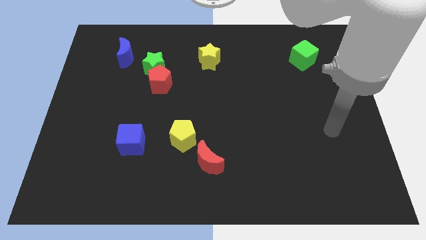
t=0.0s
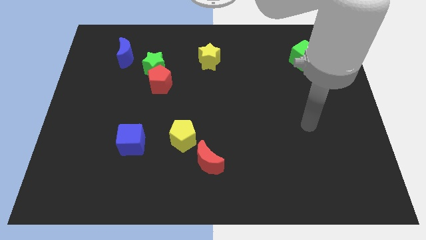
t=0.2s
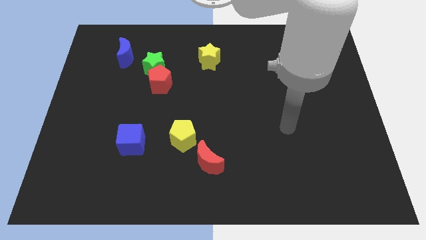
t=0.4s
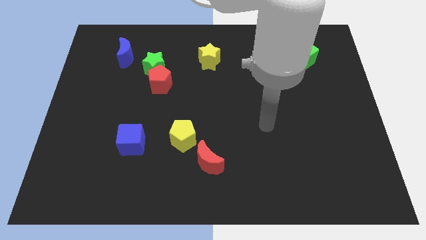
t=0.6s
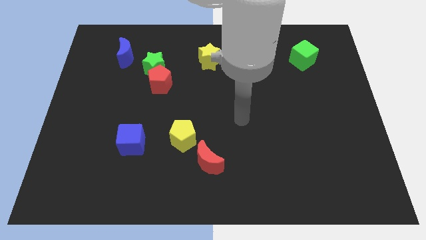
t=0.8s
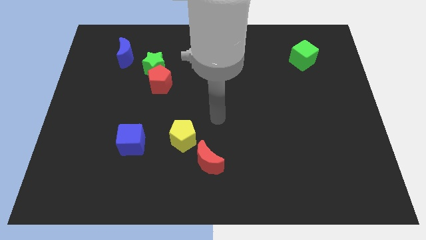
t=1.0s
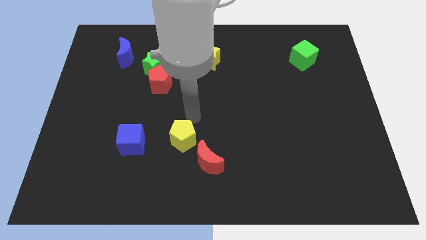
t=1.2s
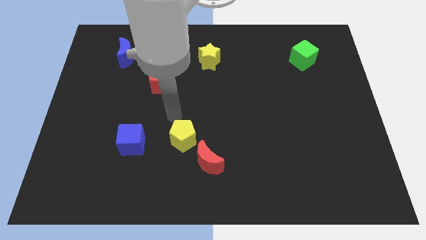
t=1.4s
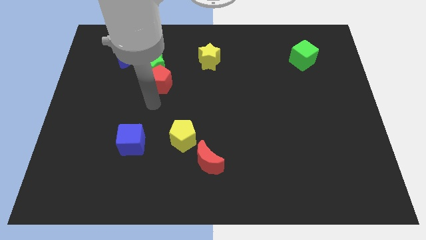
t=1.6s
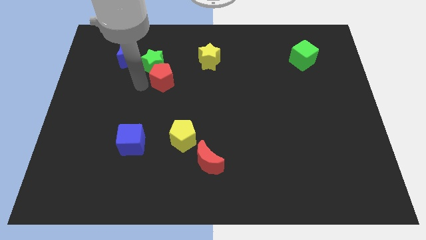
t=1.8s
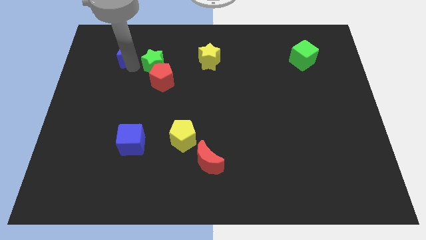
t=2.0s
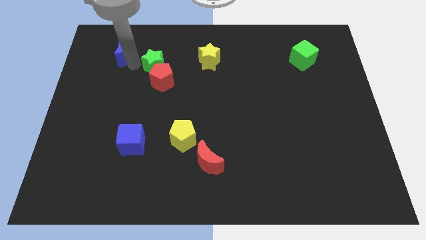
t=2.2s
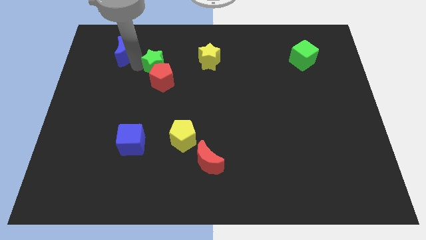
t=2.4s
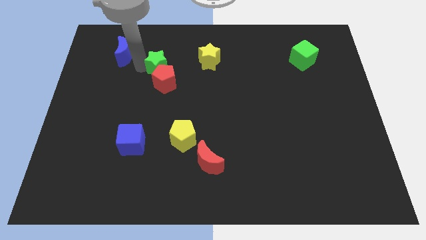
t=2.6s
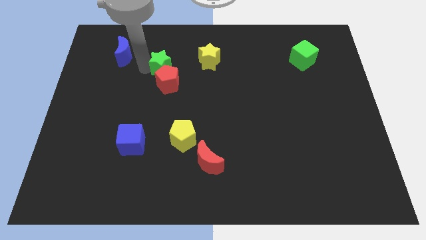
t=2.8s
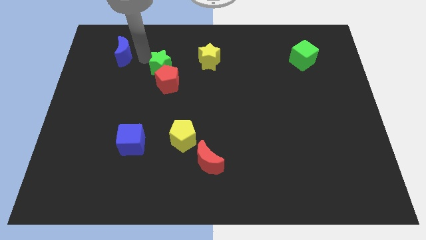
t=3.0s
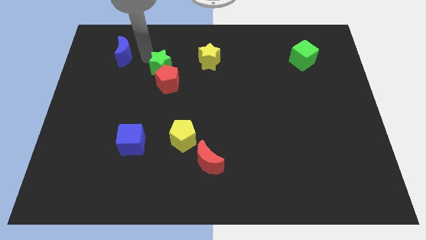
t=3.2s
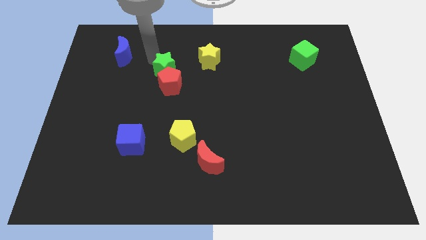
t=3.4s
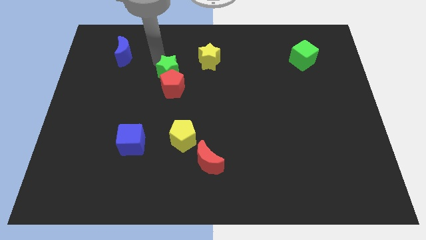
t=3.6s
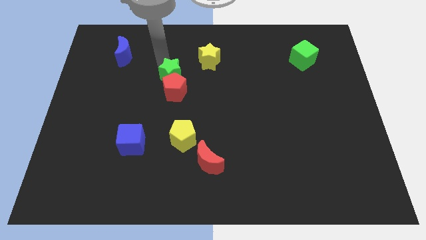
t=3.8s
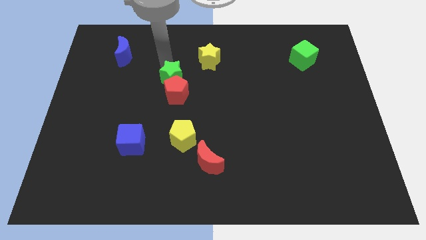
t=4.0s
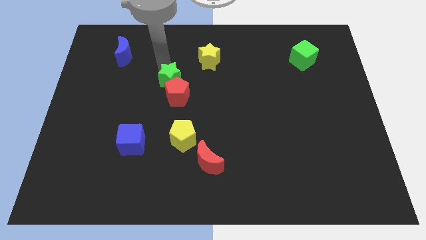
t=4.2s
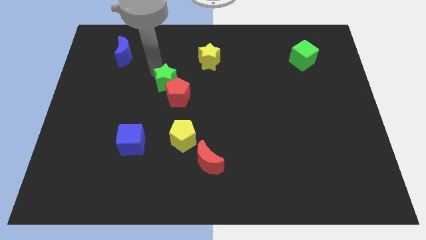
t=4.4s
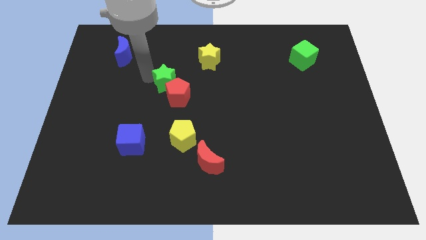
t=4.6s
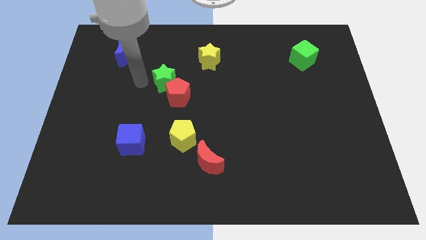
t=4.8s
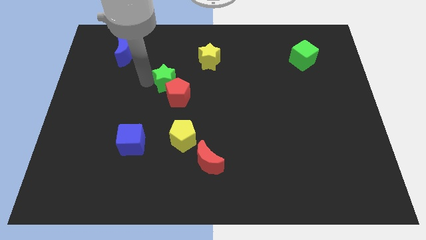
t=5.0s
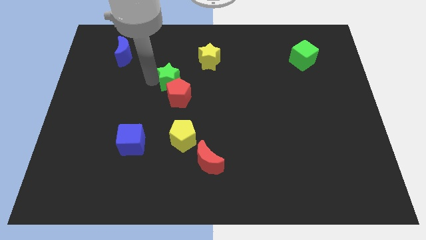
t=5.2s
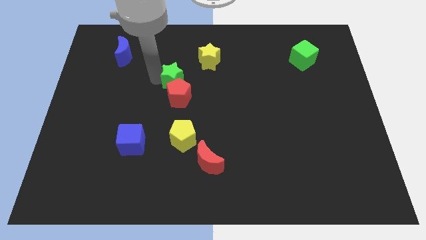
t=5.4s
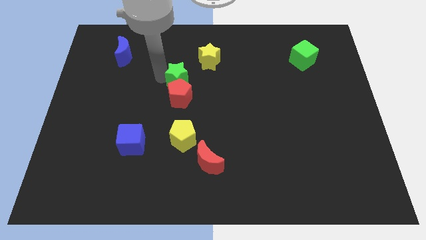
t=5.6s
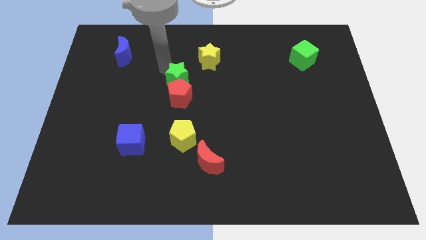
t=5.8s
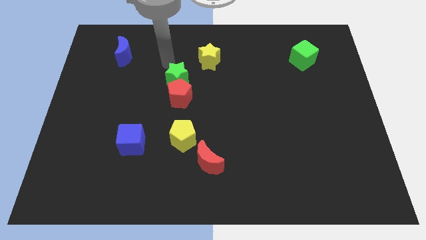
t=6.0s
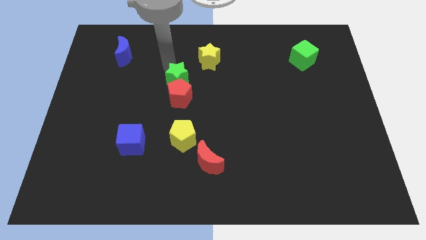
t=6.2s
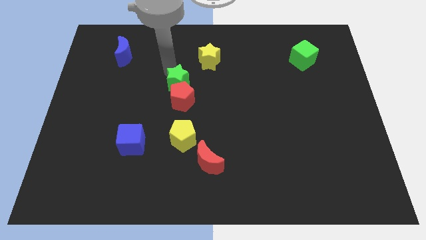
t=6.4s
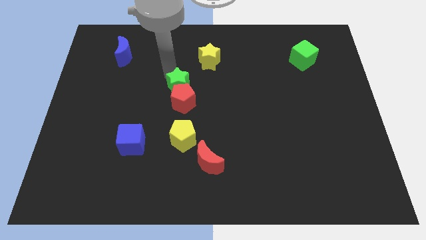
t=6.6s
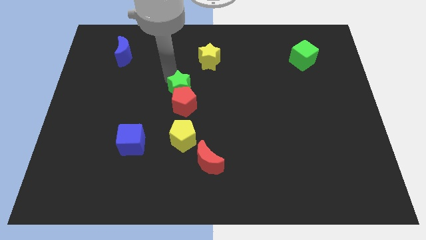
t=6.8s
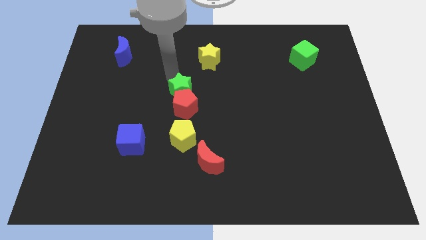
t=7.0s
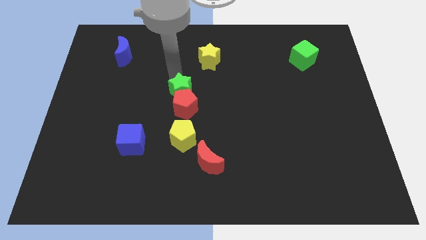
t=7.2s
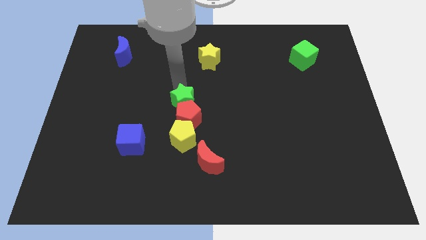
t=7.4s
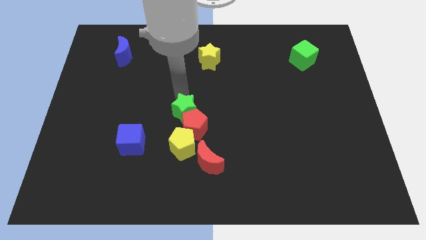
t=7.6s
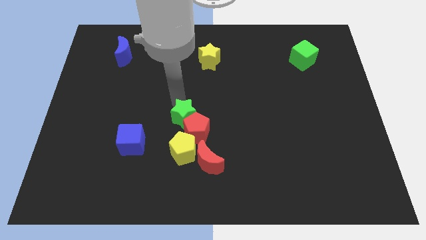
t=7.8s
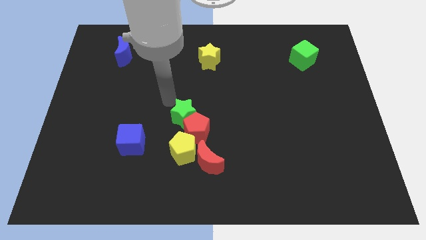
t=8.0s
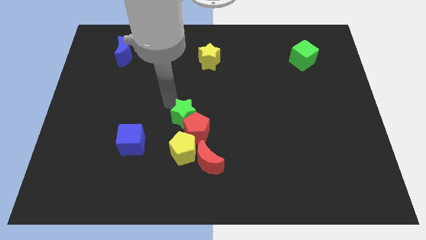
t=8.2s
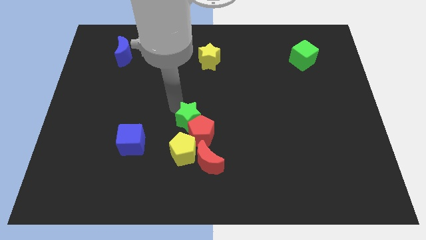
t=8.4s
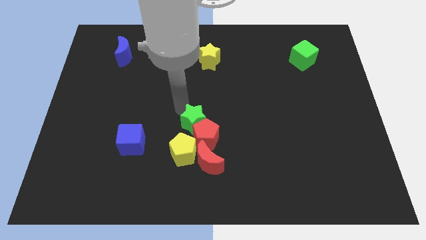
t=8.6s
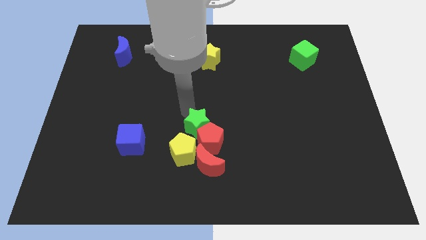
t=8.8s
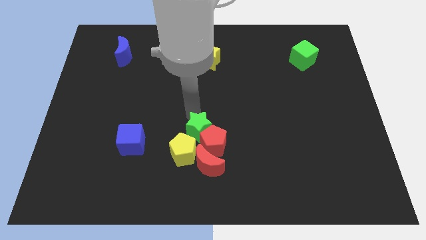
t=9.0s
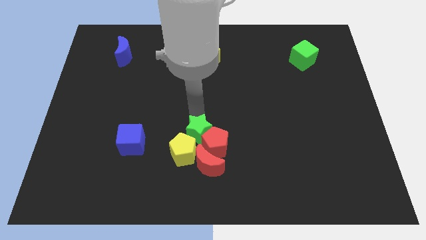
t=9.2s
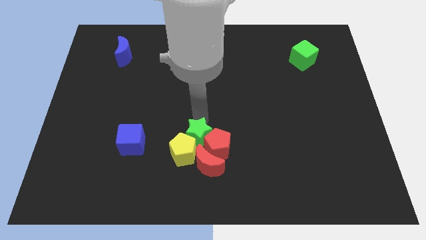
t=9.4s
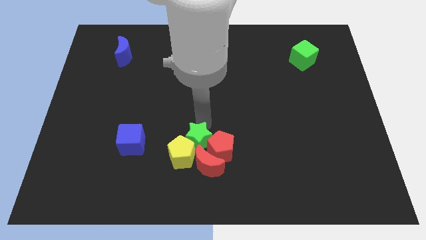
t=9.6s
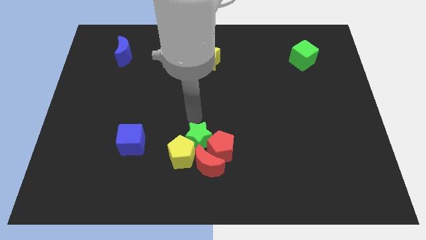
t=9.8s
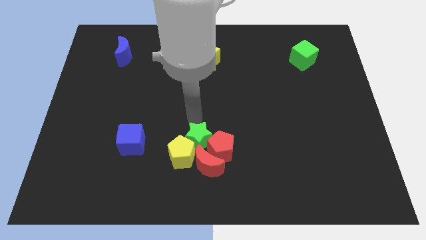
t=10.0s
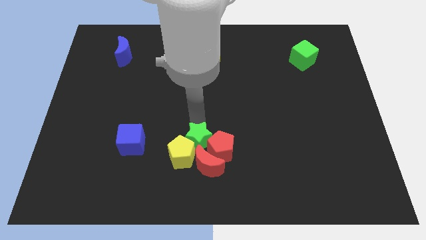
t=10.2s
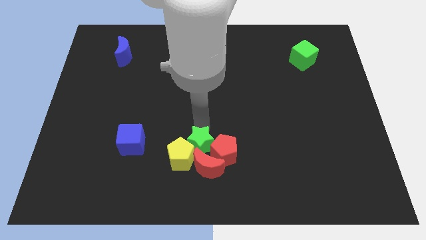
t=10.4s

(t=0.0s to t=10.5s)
put the green star towards the red moon

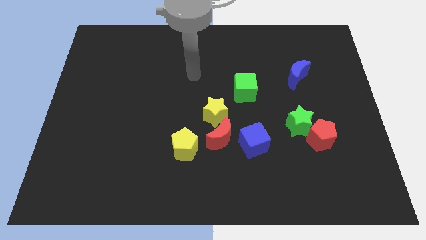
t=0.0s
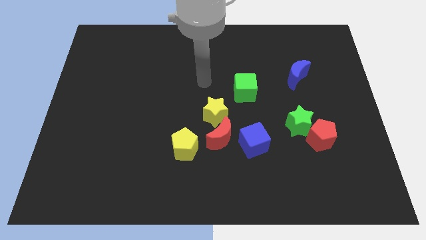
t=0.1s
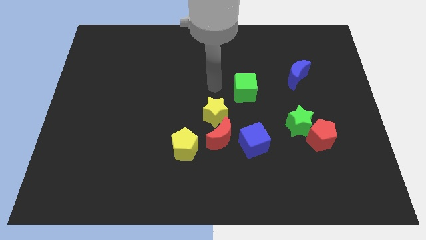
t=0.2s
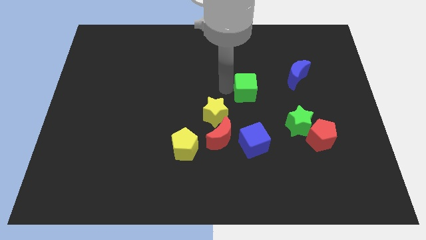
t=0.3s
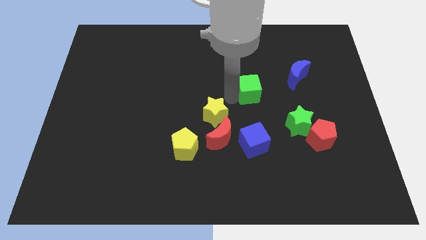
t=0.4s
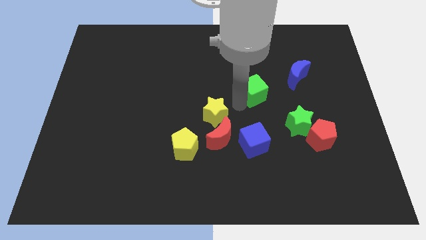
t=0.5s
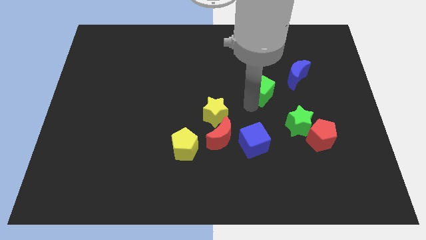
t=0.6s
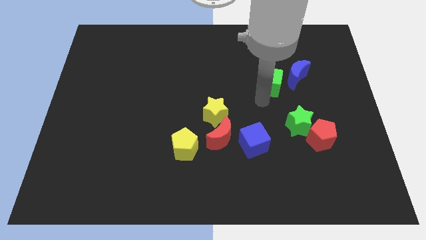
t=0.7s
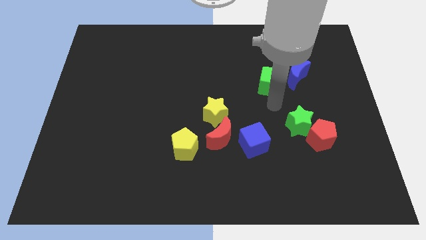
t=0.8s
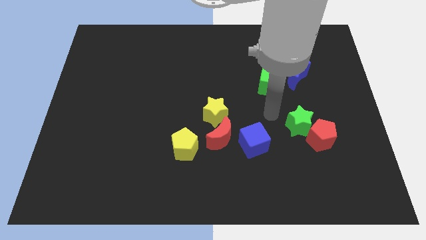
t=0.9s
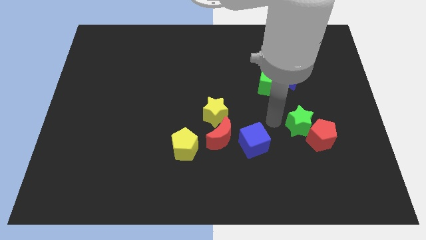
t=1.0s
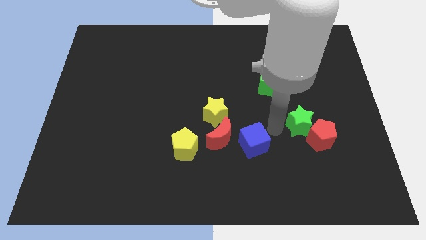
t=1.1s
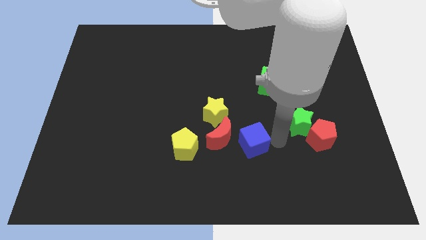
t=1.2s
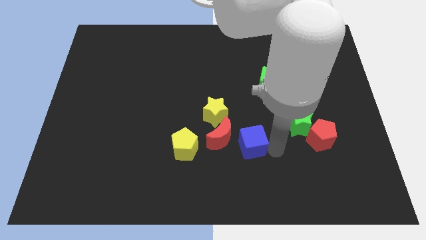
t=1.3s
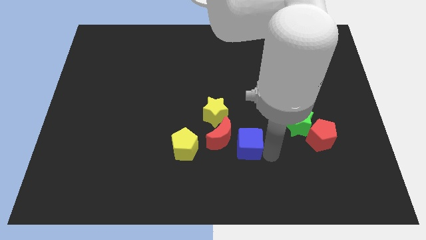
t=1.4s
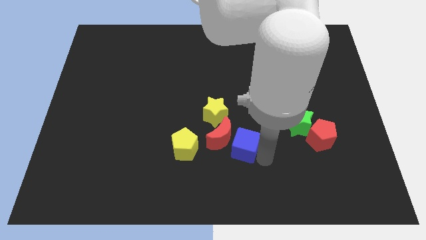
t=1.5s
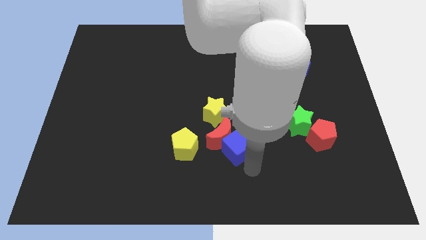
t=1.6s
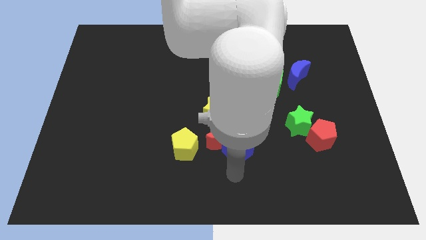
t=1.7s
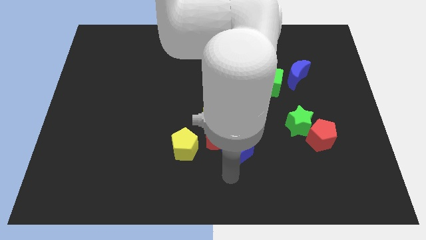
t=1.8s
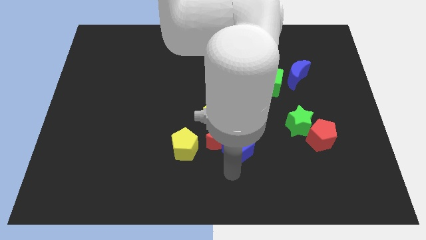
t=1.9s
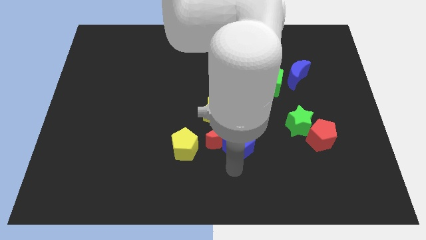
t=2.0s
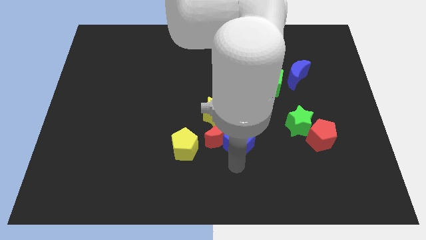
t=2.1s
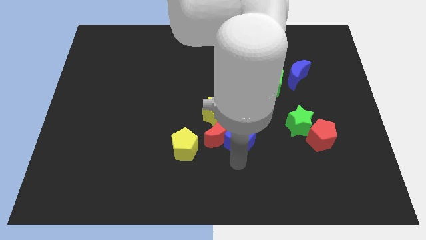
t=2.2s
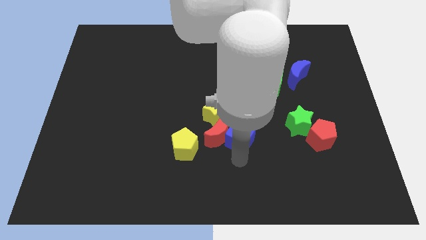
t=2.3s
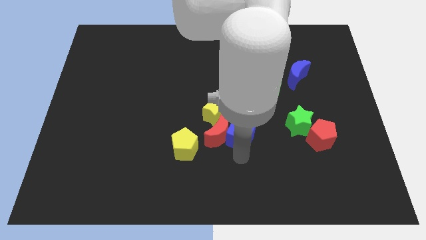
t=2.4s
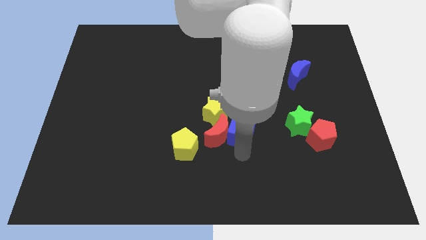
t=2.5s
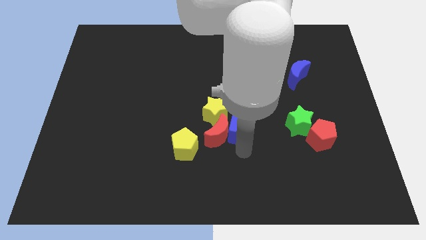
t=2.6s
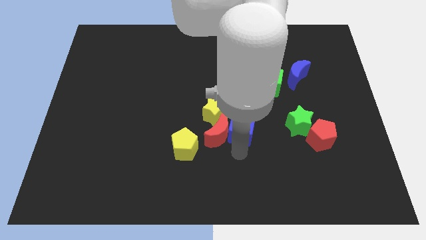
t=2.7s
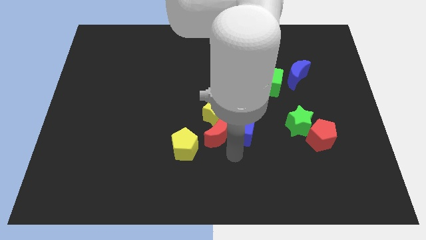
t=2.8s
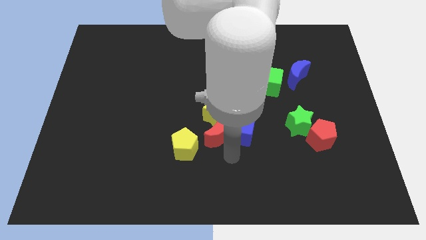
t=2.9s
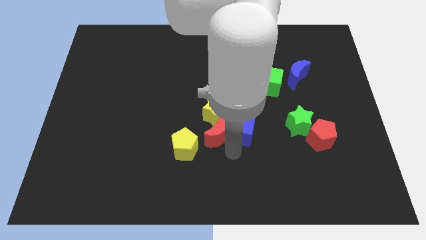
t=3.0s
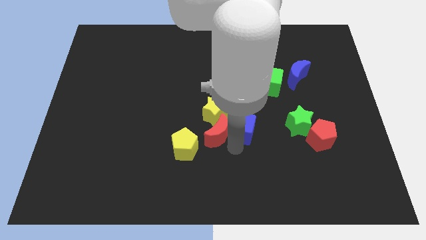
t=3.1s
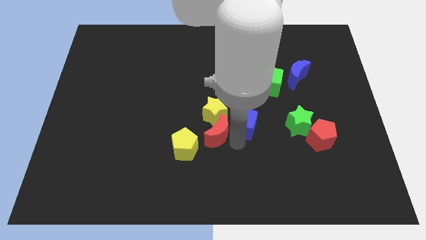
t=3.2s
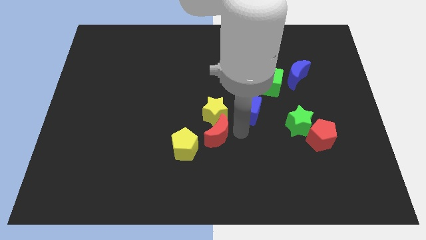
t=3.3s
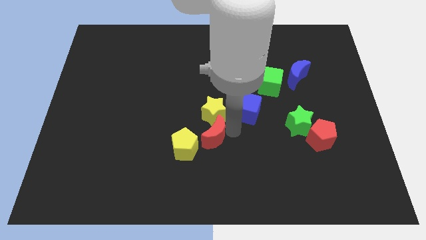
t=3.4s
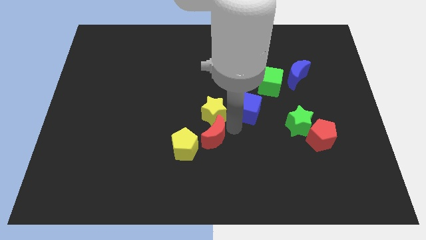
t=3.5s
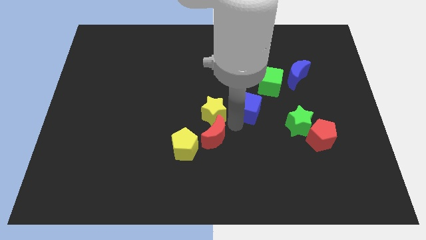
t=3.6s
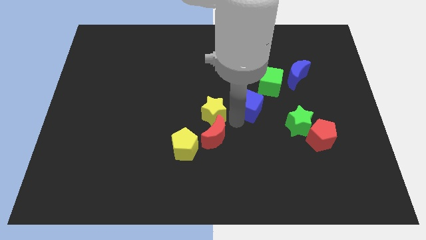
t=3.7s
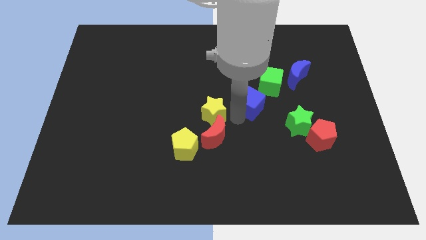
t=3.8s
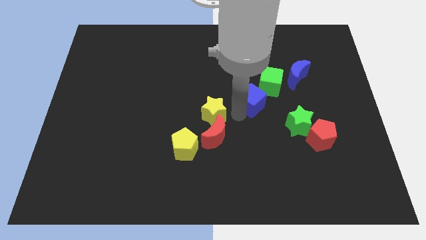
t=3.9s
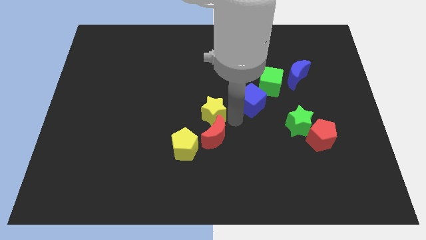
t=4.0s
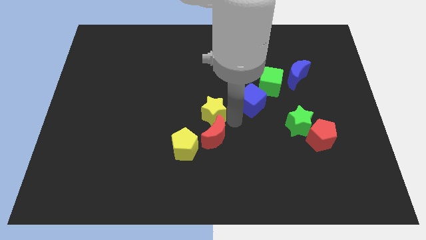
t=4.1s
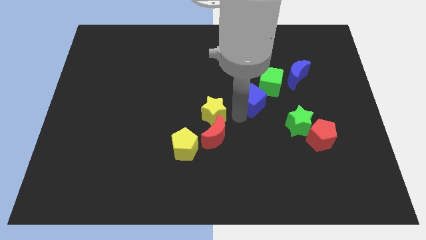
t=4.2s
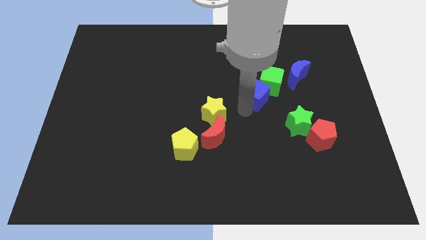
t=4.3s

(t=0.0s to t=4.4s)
move the blue cube next to the green cube
